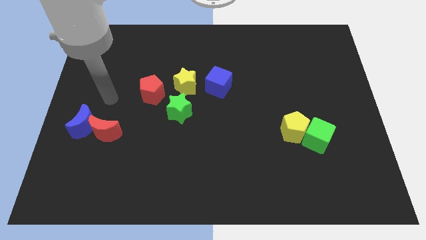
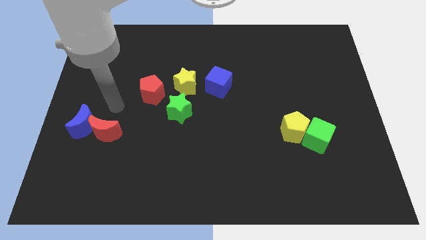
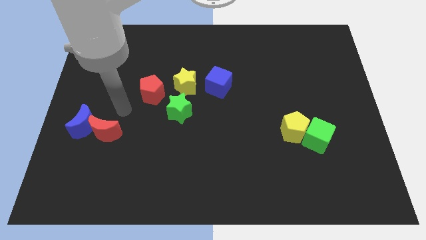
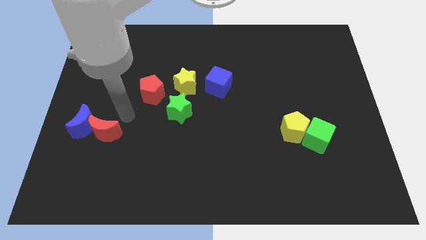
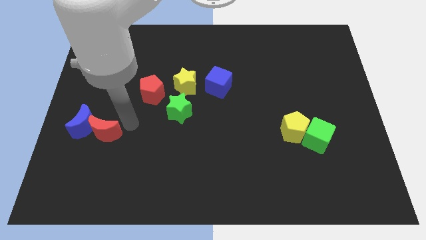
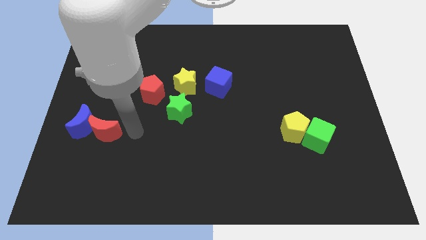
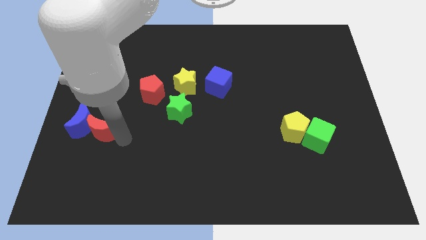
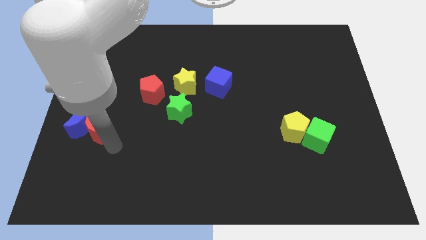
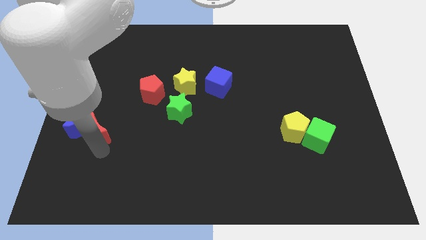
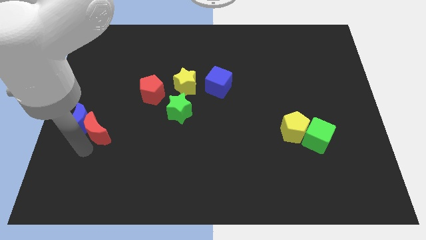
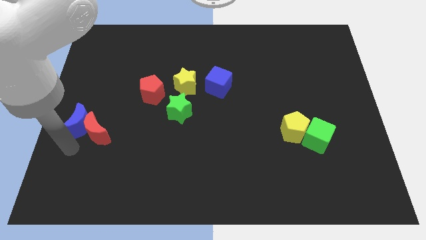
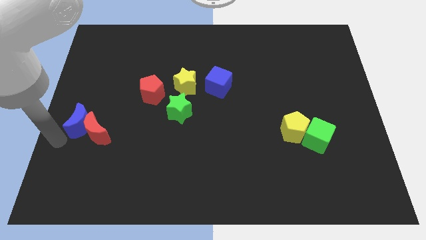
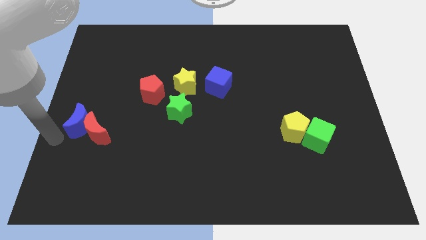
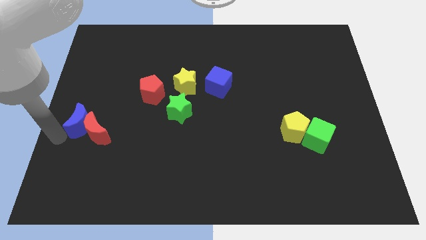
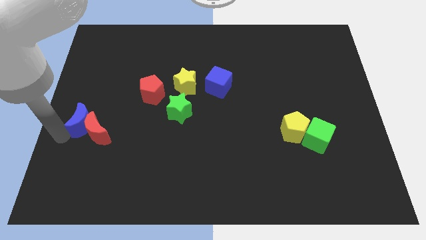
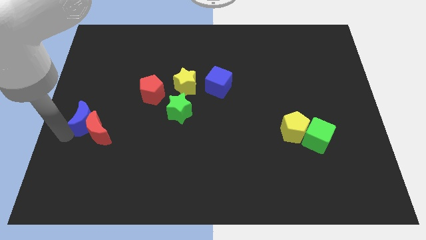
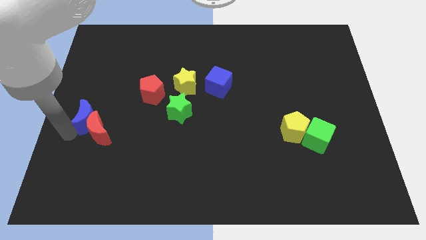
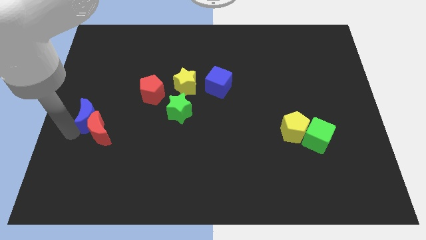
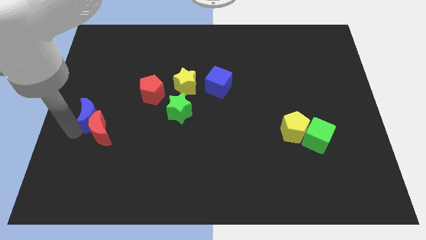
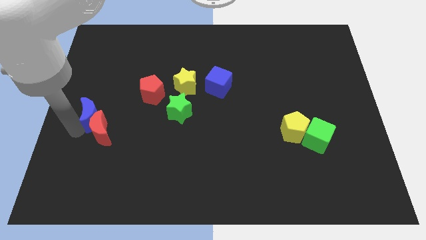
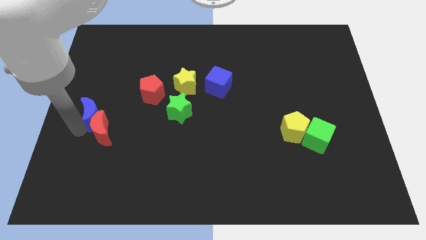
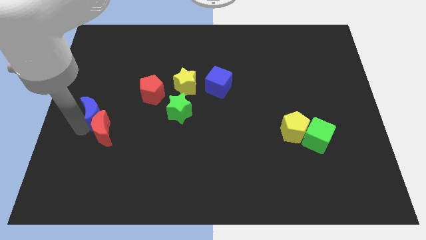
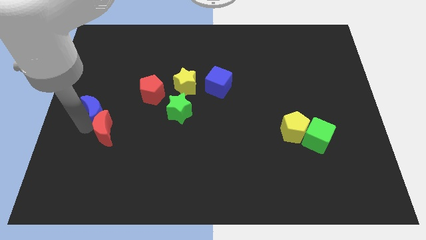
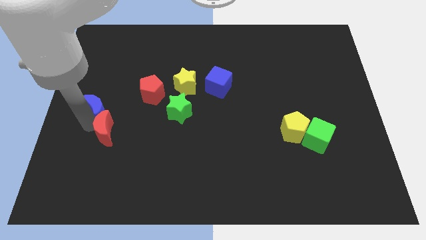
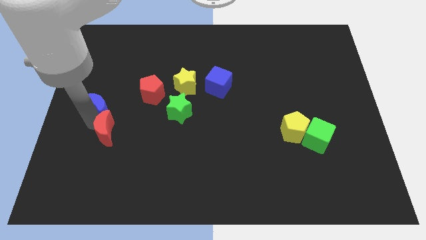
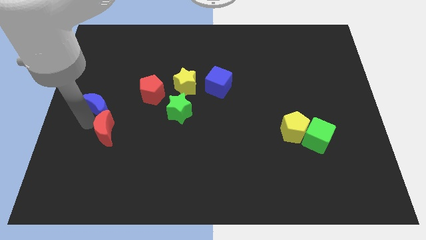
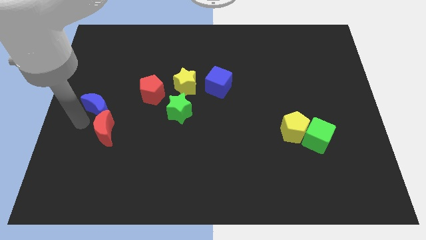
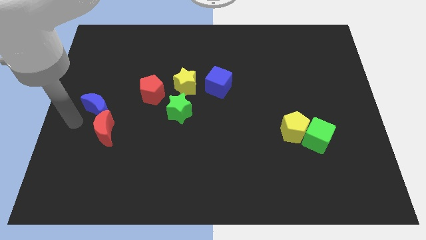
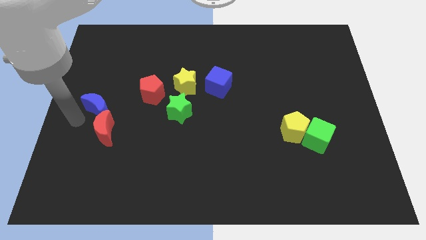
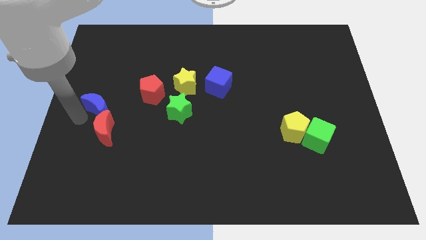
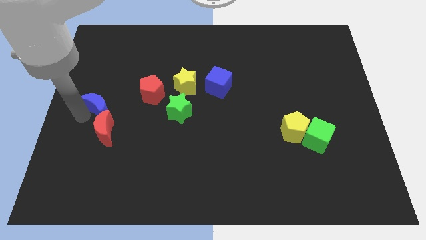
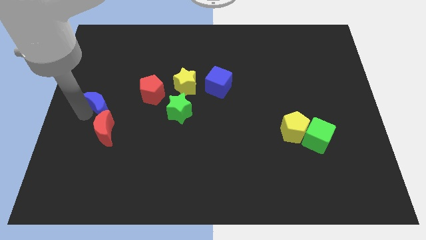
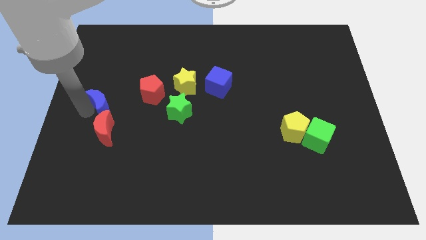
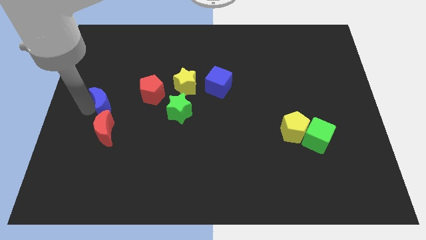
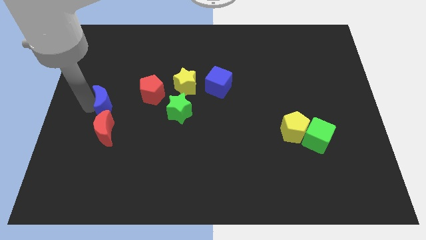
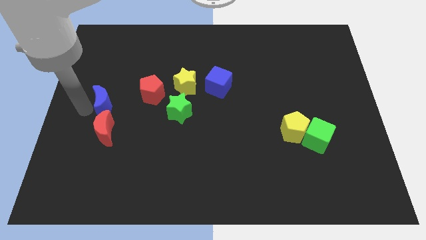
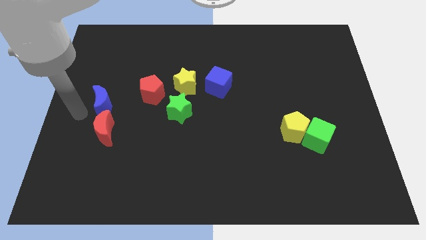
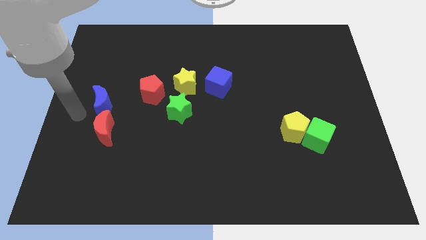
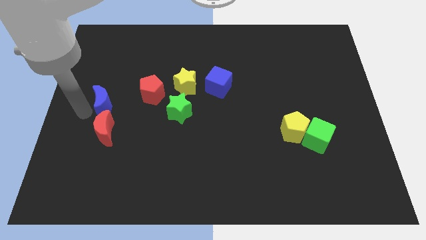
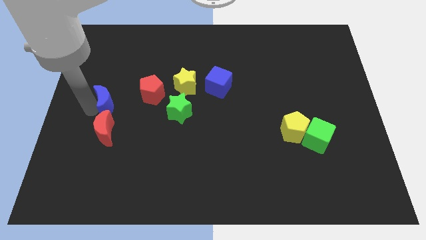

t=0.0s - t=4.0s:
push the blue moon upwards and right slightly

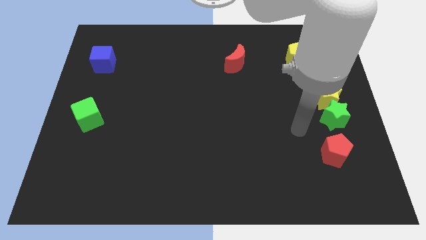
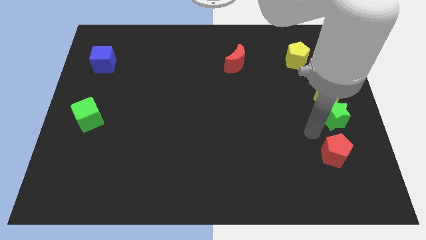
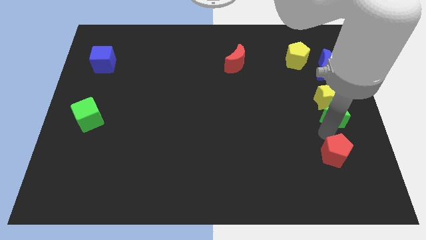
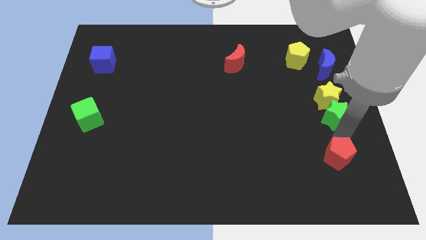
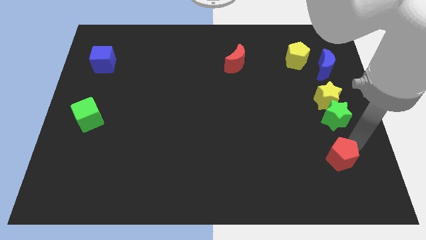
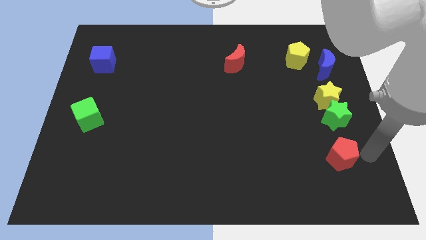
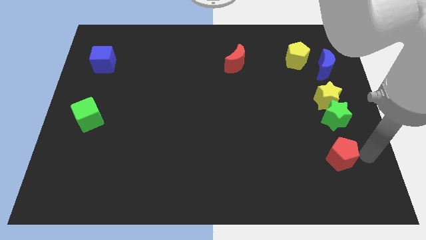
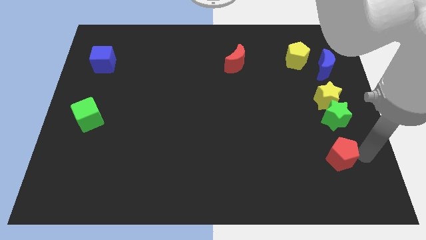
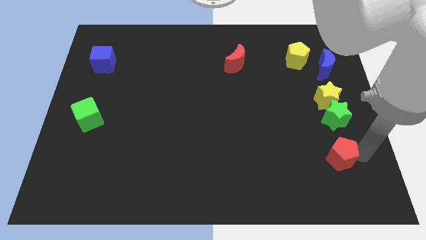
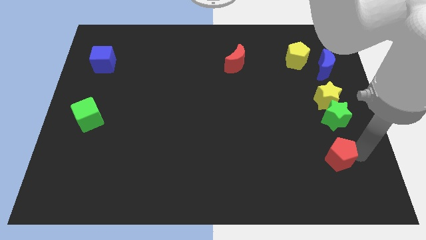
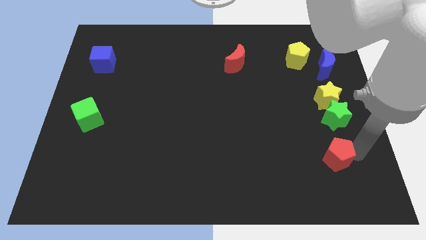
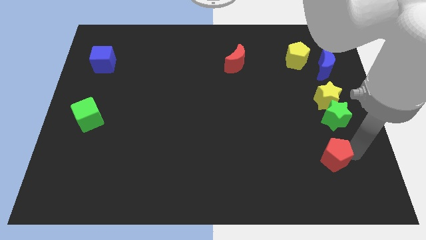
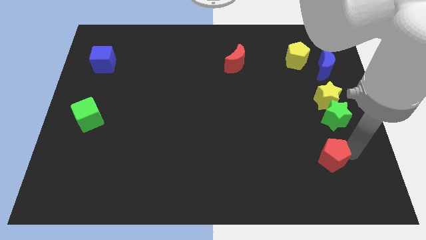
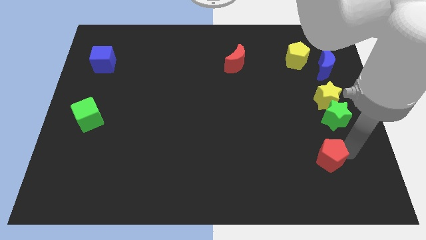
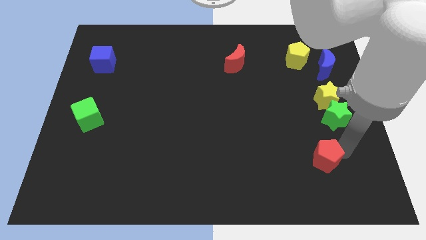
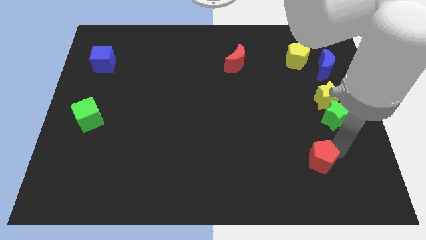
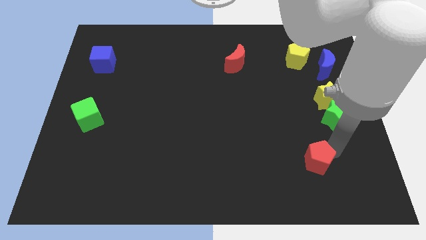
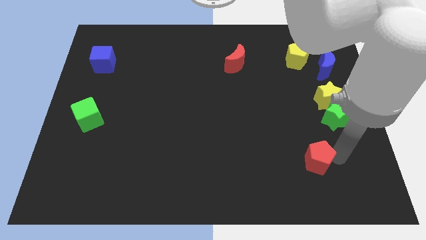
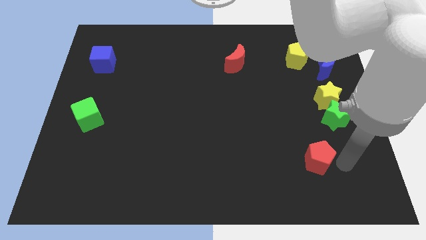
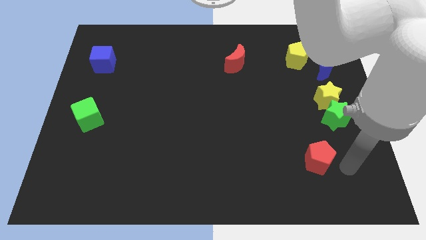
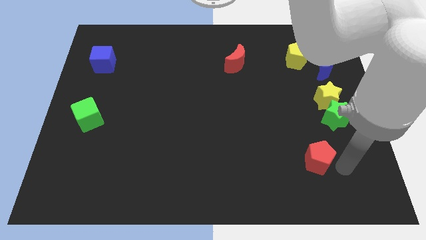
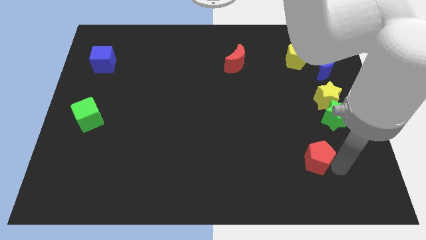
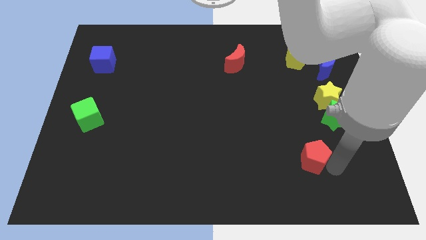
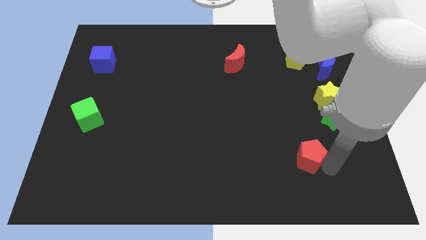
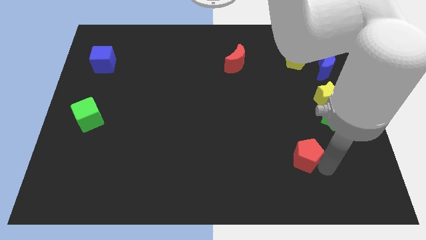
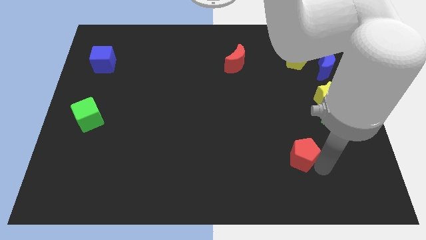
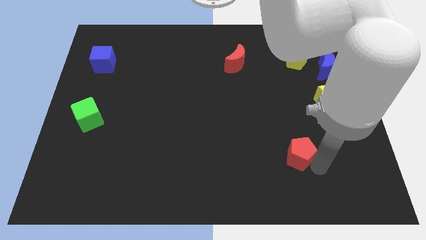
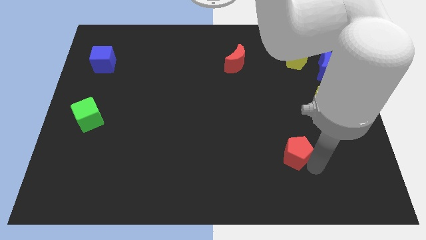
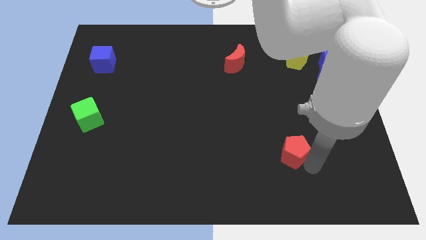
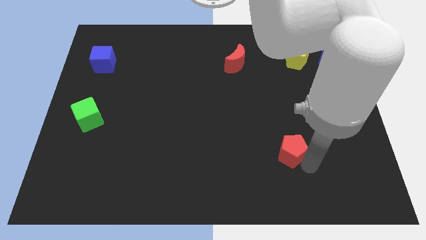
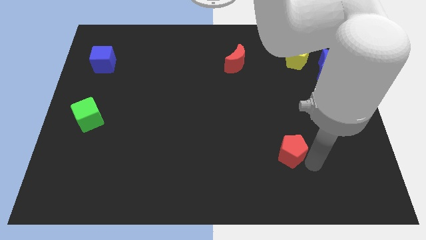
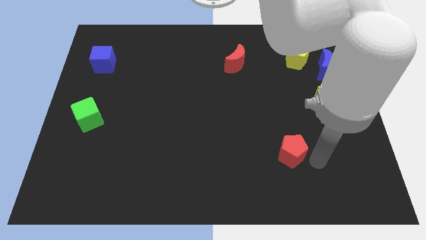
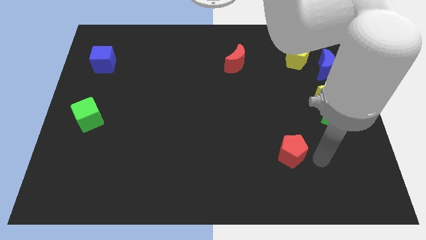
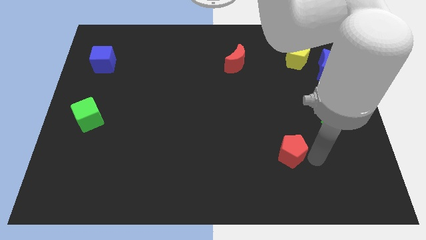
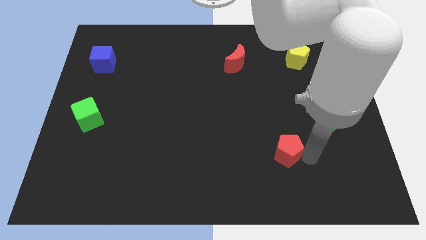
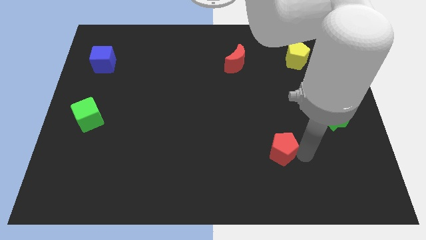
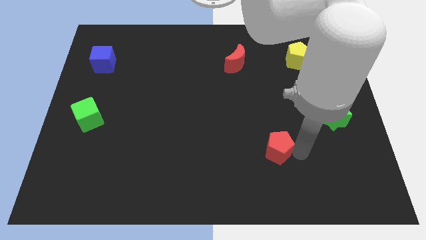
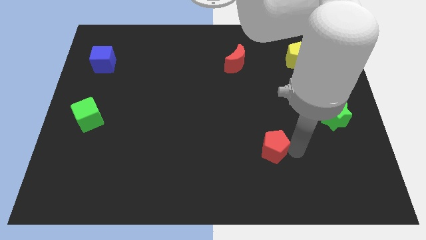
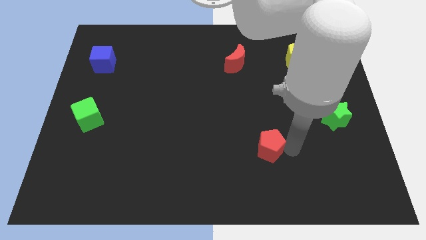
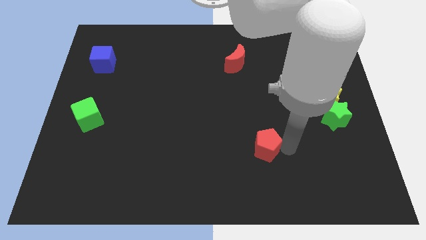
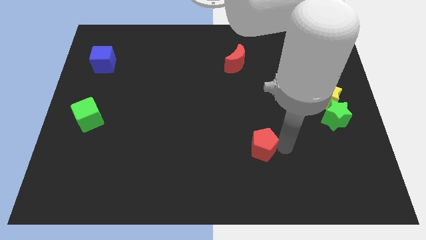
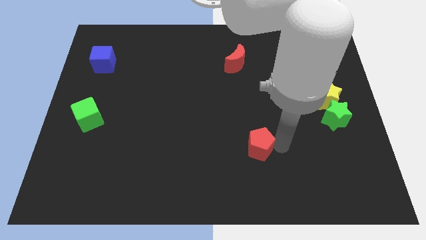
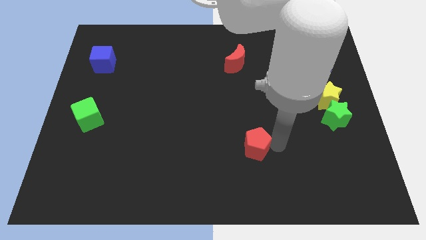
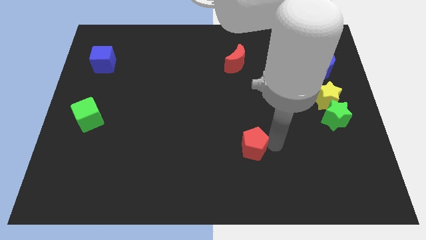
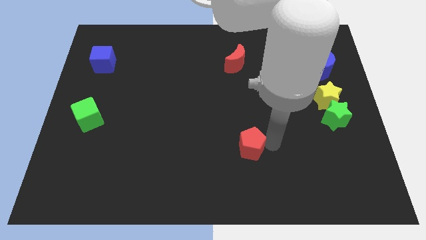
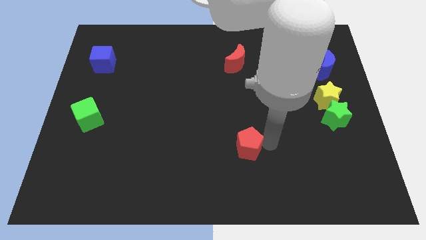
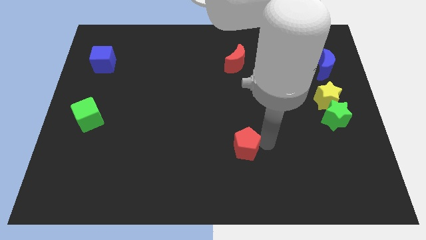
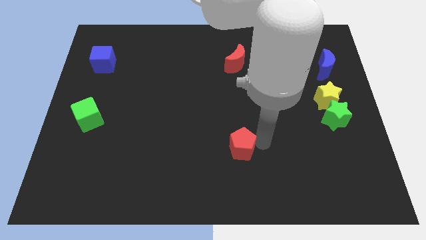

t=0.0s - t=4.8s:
move the red pentagon to the left
